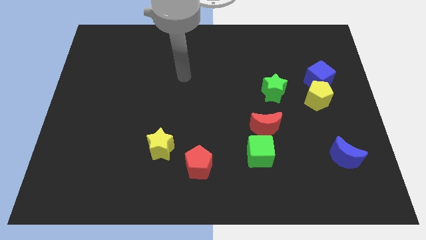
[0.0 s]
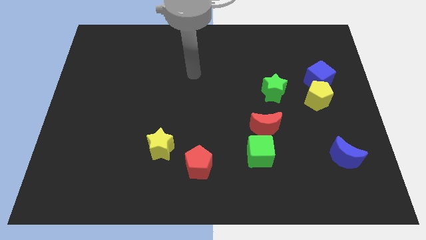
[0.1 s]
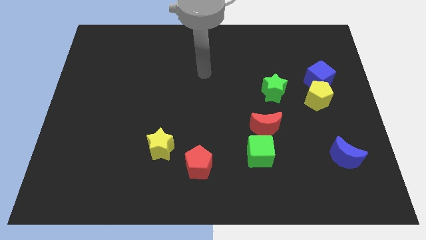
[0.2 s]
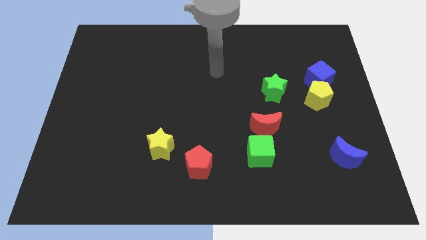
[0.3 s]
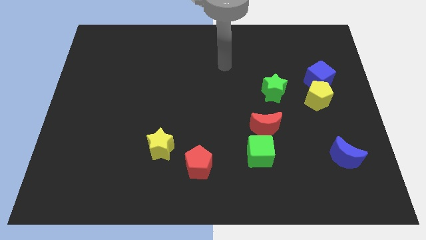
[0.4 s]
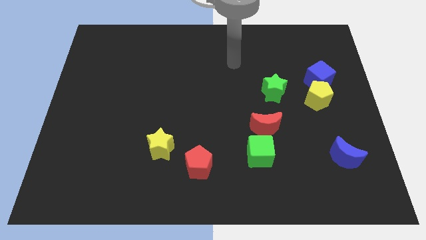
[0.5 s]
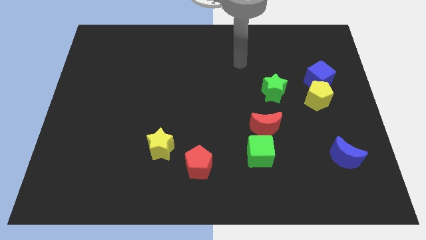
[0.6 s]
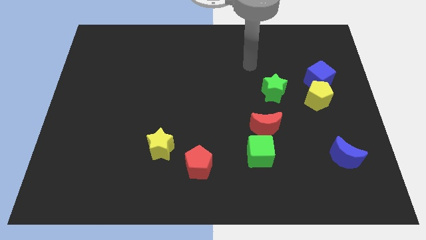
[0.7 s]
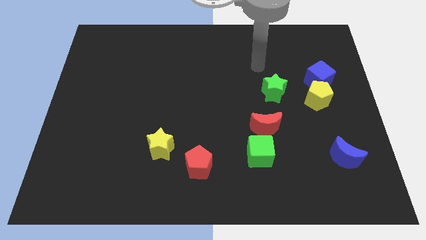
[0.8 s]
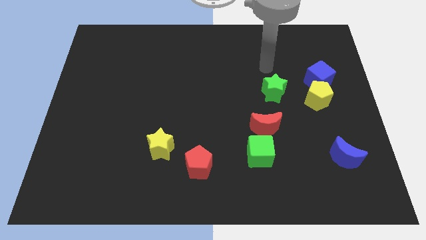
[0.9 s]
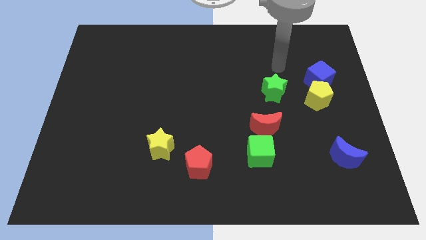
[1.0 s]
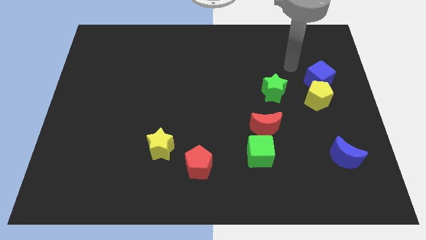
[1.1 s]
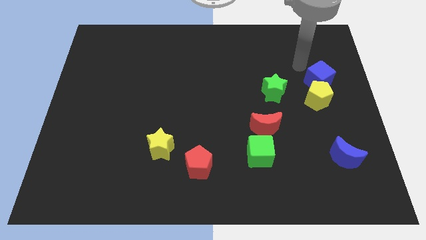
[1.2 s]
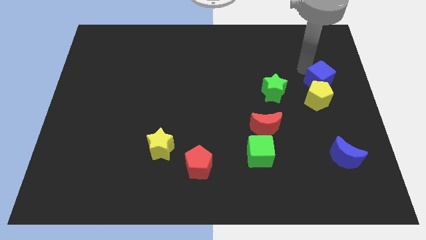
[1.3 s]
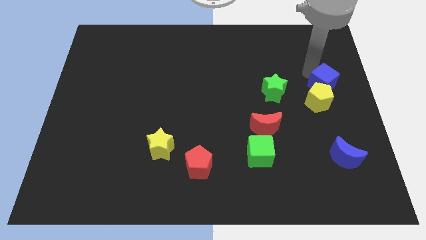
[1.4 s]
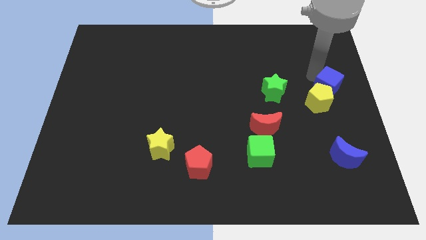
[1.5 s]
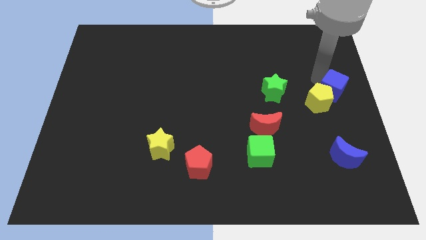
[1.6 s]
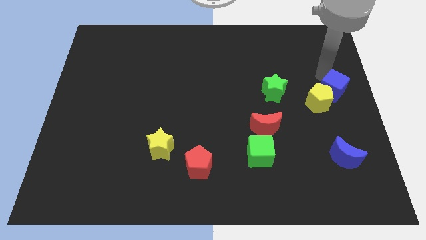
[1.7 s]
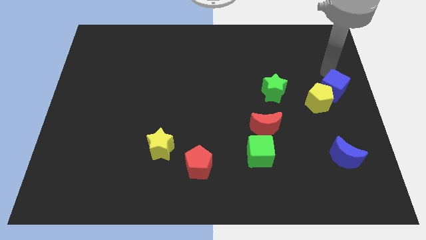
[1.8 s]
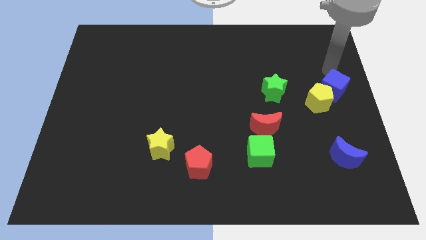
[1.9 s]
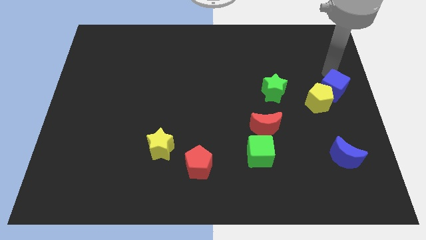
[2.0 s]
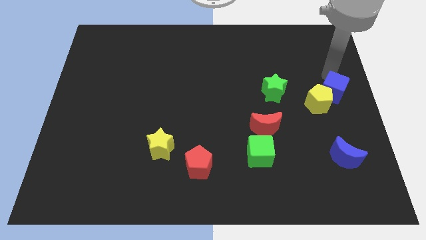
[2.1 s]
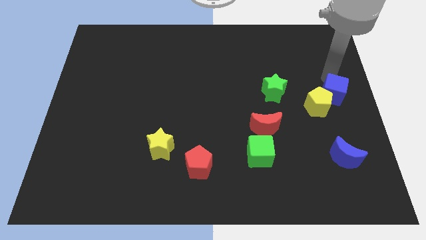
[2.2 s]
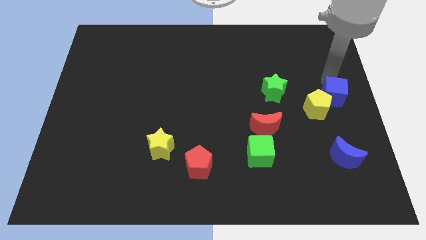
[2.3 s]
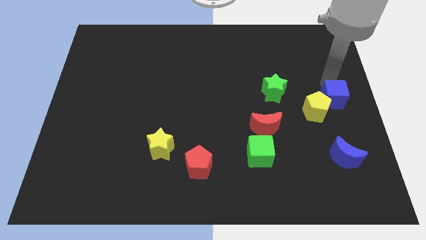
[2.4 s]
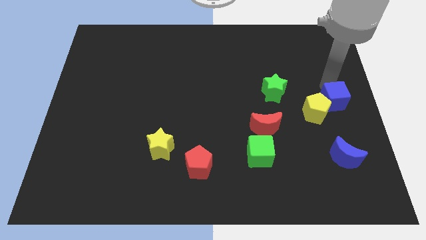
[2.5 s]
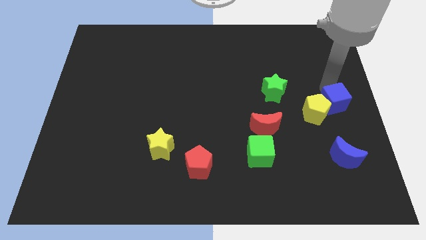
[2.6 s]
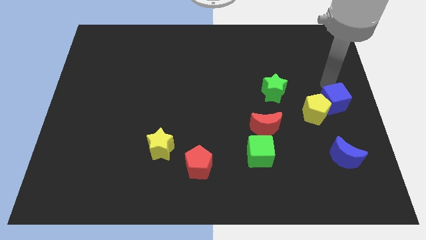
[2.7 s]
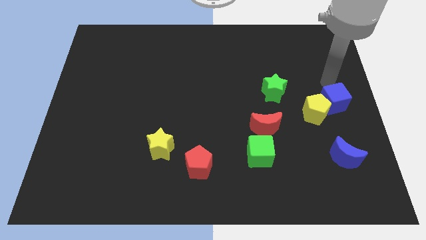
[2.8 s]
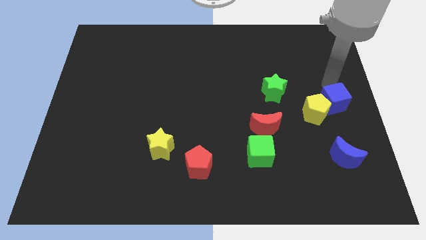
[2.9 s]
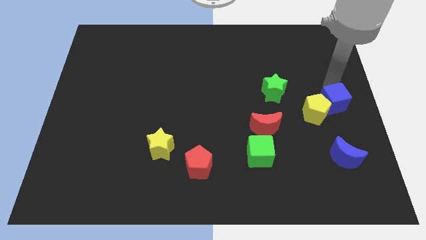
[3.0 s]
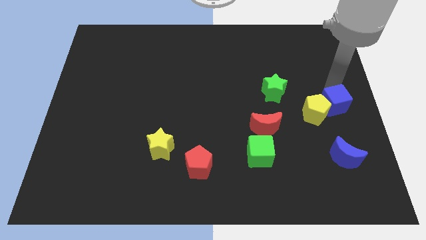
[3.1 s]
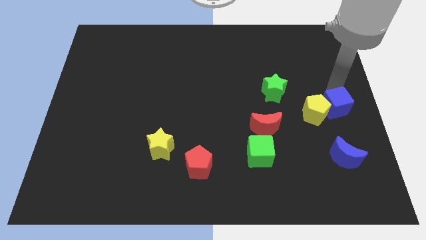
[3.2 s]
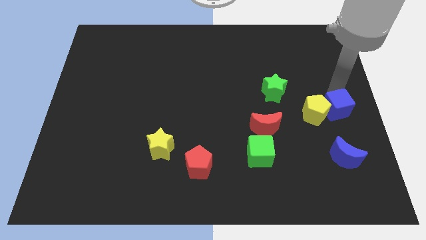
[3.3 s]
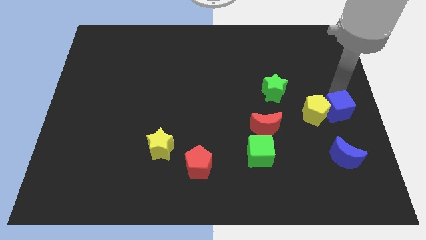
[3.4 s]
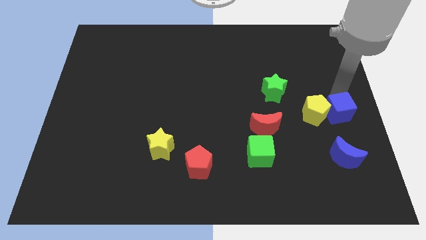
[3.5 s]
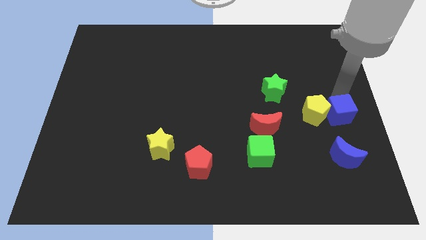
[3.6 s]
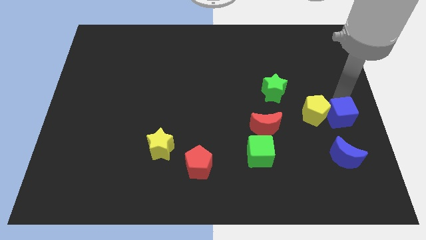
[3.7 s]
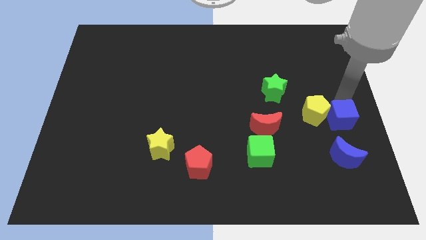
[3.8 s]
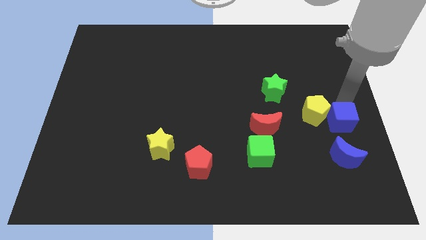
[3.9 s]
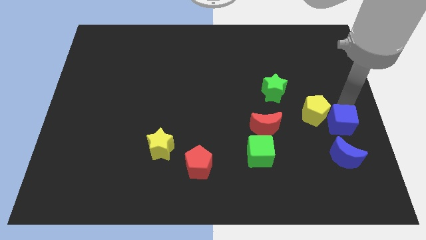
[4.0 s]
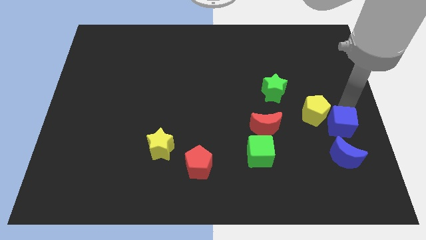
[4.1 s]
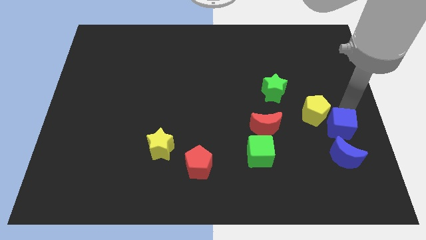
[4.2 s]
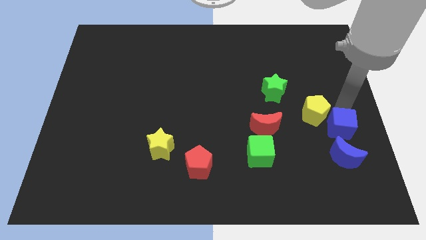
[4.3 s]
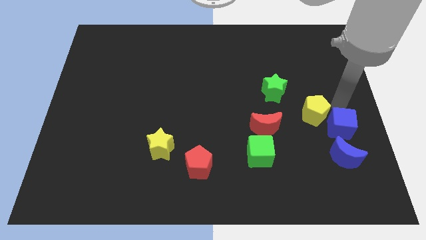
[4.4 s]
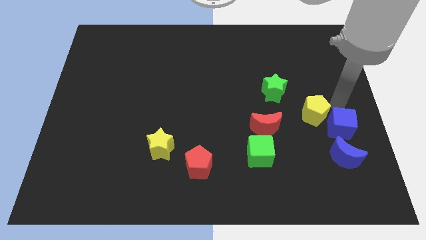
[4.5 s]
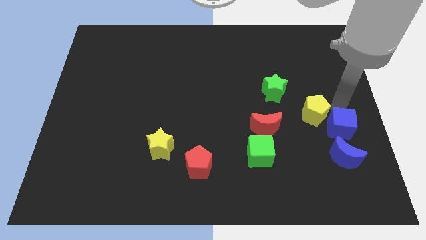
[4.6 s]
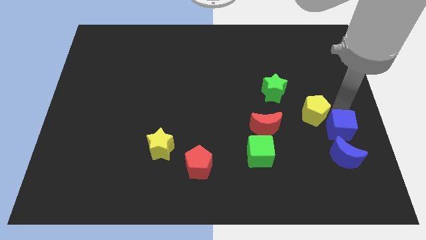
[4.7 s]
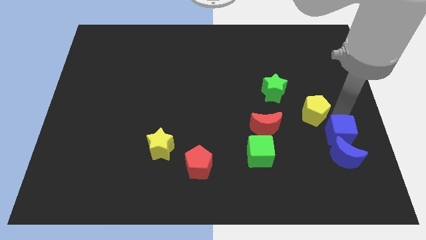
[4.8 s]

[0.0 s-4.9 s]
put the blue cube next to the blue moon

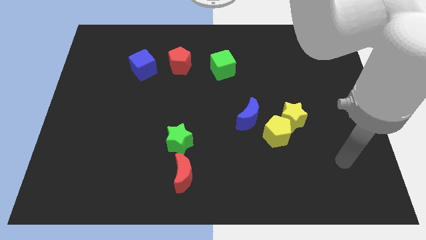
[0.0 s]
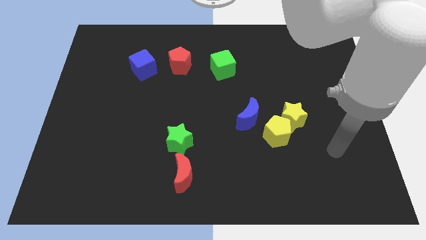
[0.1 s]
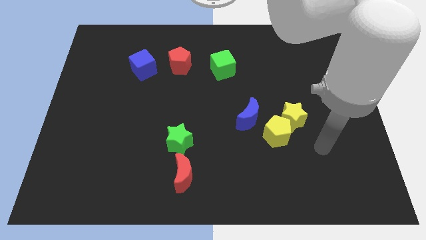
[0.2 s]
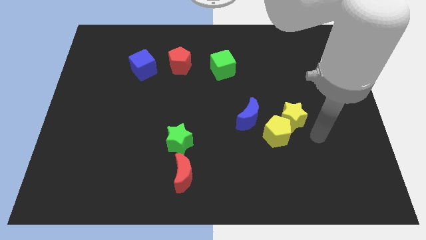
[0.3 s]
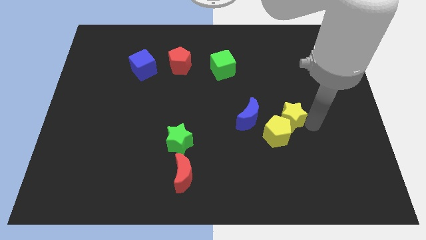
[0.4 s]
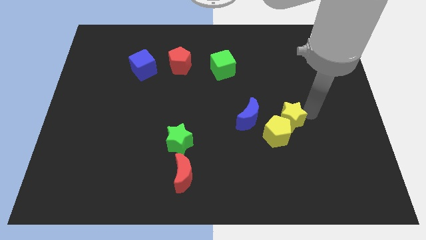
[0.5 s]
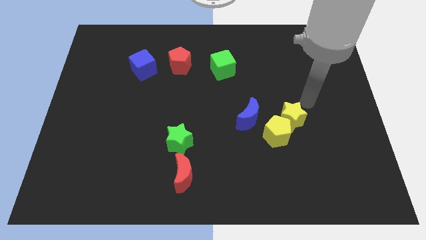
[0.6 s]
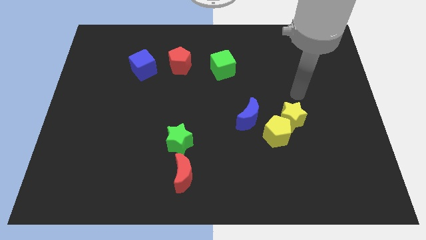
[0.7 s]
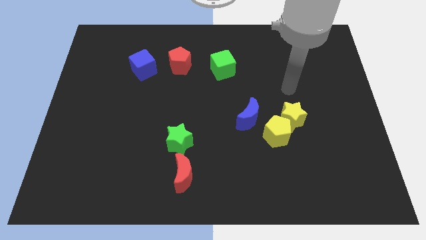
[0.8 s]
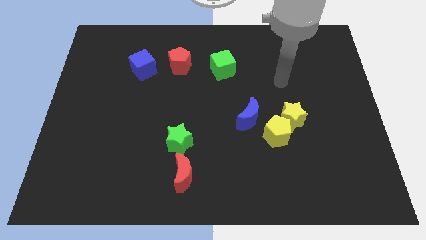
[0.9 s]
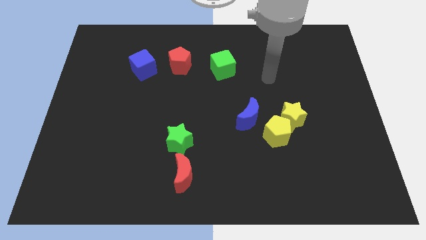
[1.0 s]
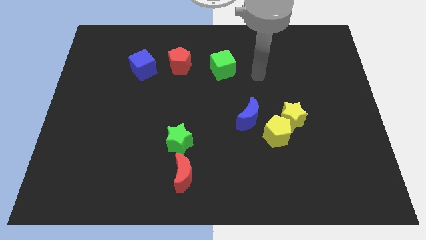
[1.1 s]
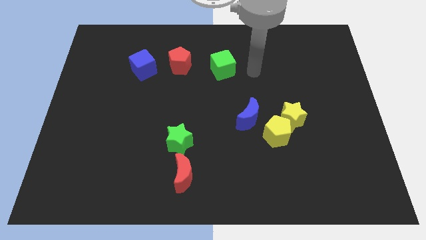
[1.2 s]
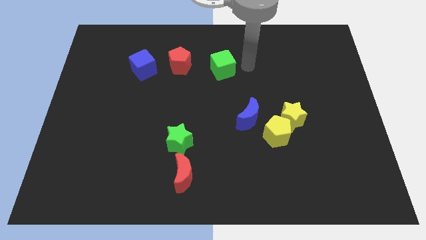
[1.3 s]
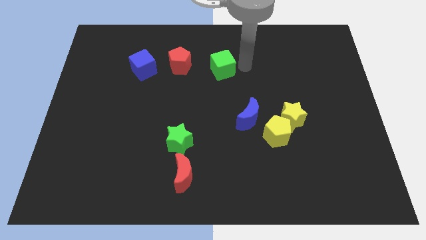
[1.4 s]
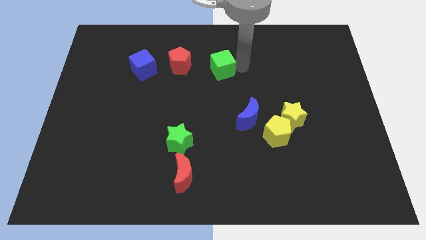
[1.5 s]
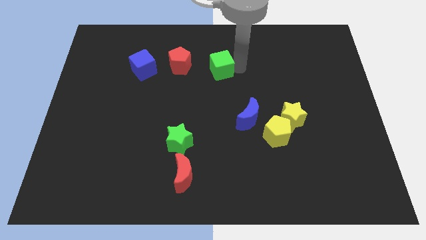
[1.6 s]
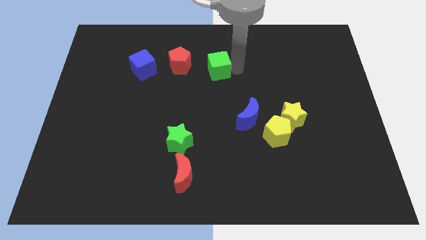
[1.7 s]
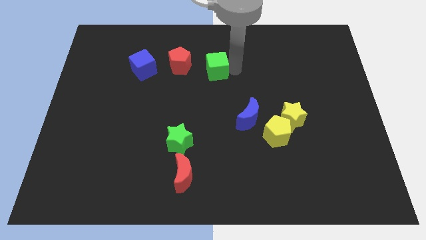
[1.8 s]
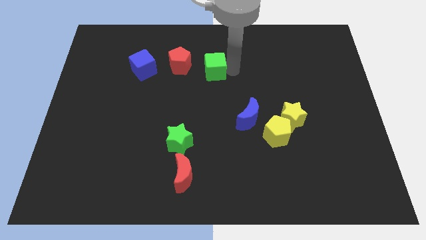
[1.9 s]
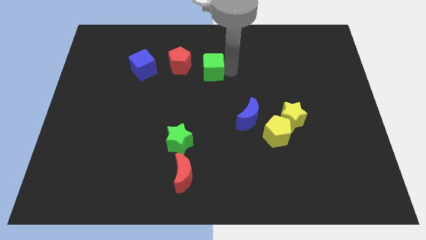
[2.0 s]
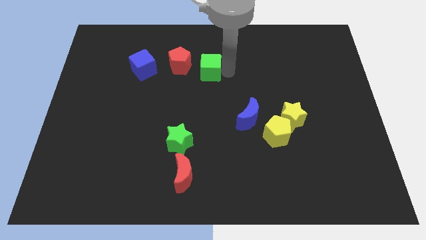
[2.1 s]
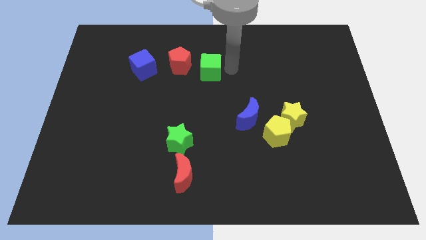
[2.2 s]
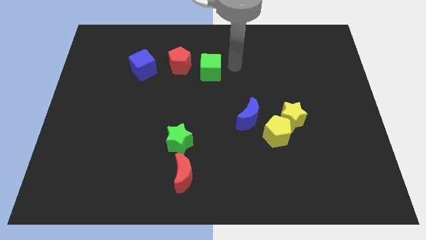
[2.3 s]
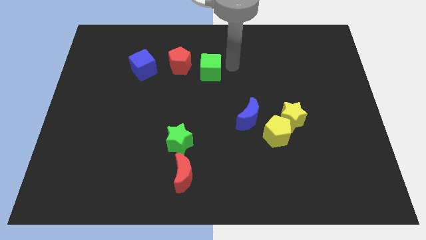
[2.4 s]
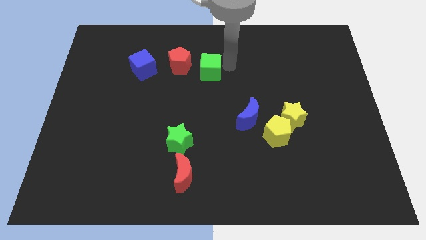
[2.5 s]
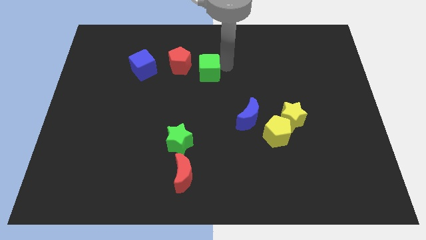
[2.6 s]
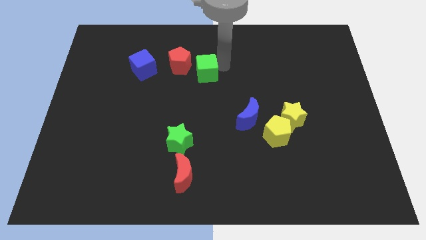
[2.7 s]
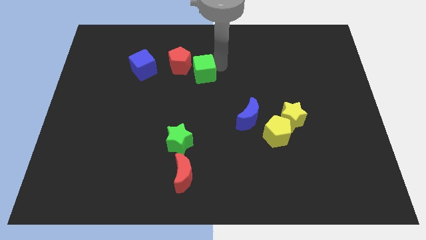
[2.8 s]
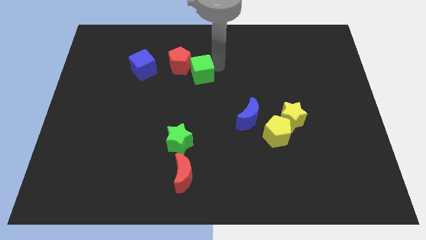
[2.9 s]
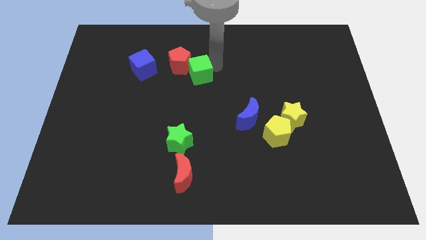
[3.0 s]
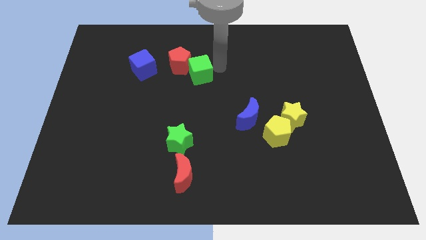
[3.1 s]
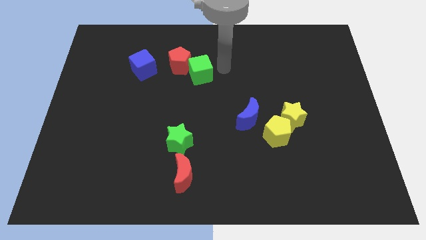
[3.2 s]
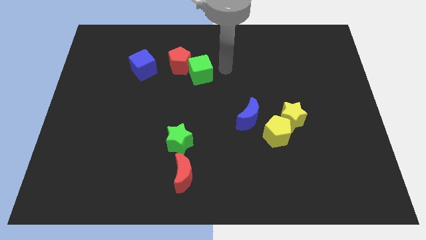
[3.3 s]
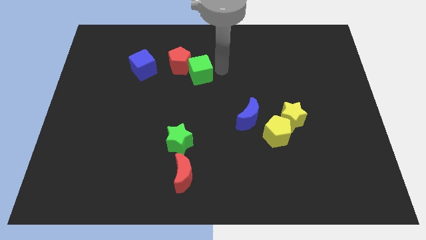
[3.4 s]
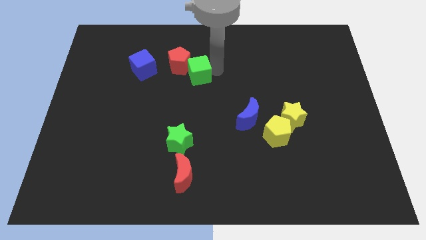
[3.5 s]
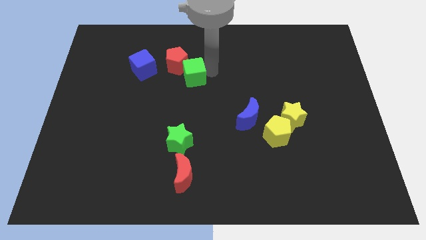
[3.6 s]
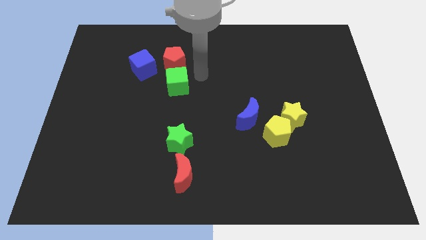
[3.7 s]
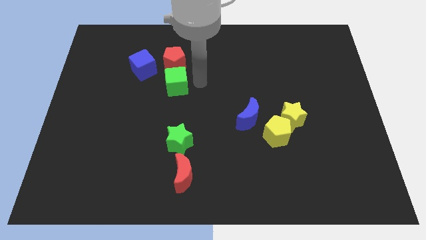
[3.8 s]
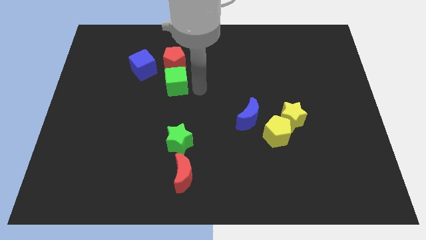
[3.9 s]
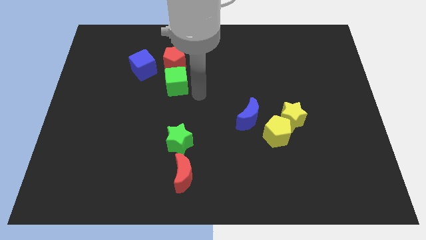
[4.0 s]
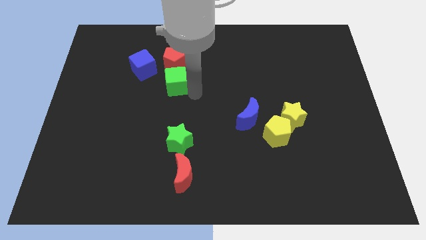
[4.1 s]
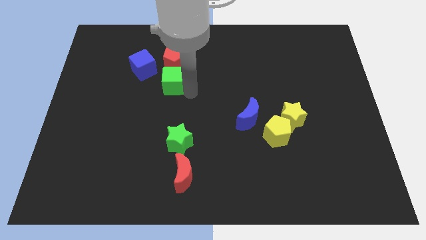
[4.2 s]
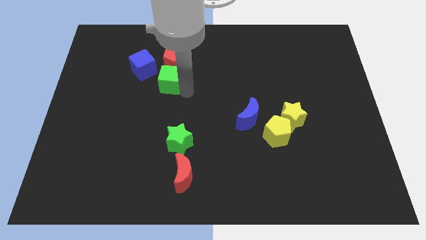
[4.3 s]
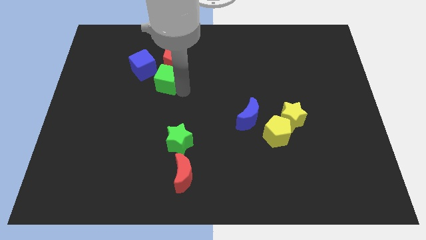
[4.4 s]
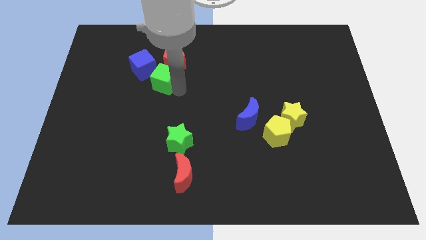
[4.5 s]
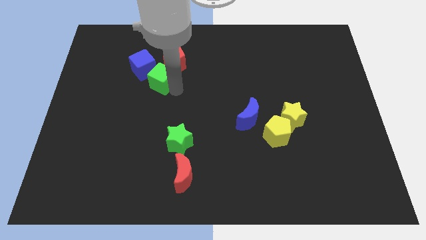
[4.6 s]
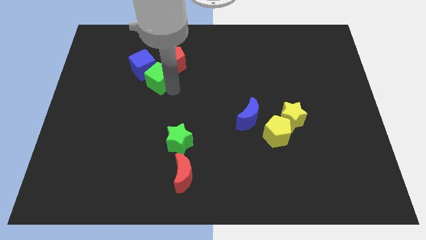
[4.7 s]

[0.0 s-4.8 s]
slide the green cube close to the blue cube
